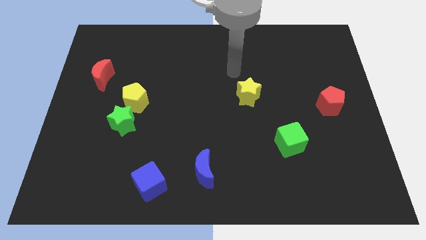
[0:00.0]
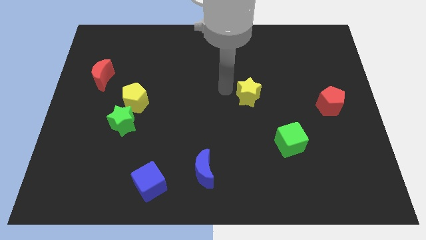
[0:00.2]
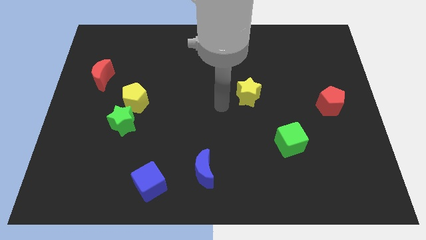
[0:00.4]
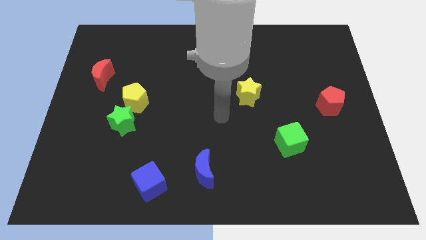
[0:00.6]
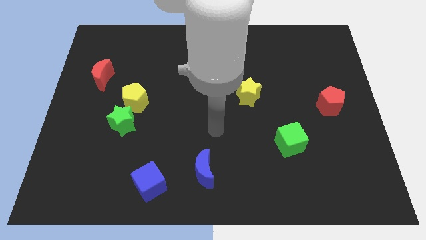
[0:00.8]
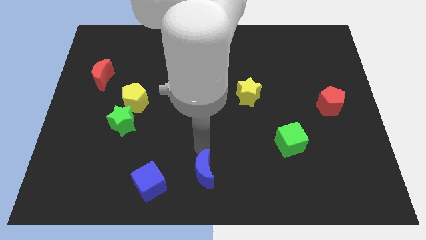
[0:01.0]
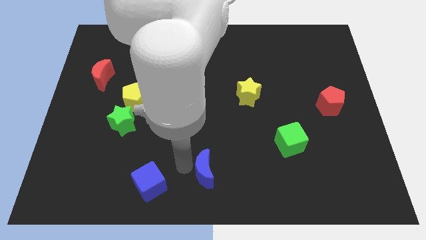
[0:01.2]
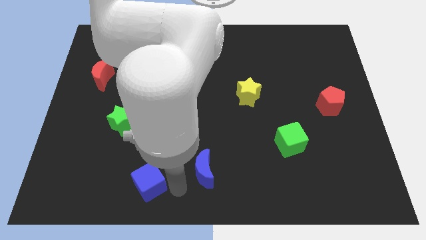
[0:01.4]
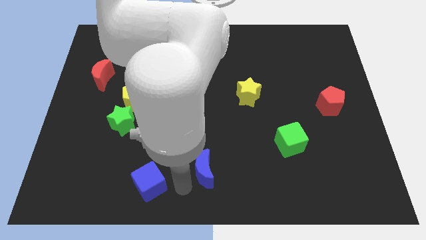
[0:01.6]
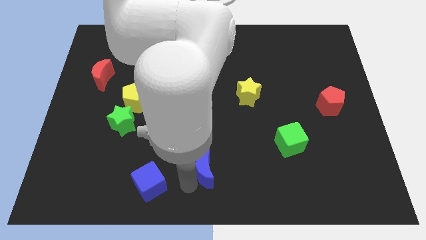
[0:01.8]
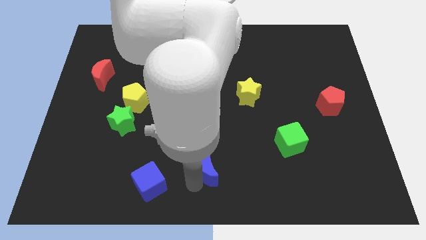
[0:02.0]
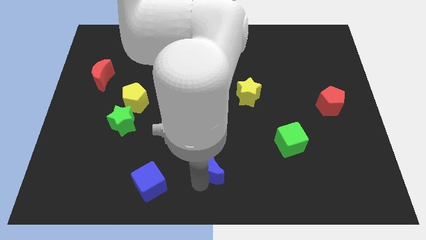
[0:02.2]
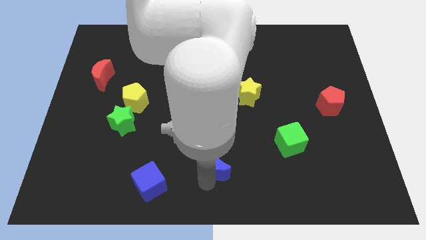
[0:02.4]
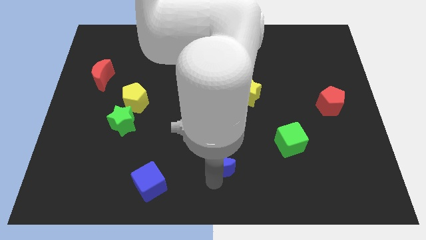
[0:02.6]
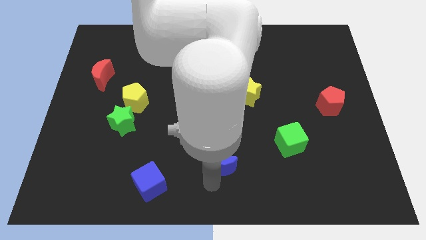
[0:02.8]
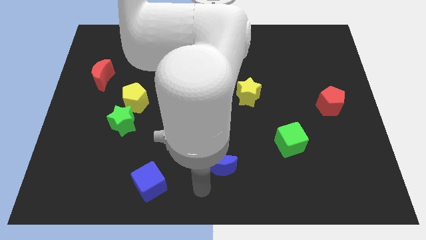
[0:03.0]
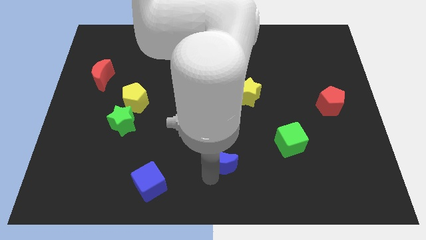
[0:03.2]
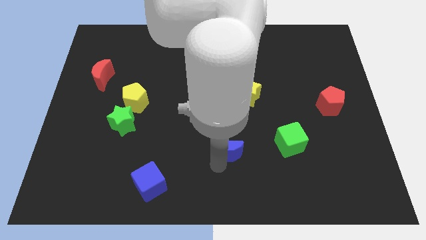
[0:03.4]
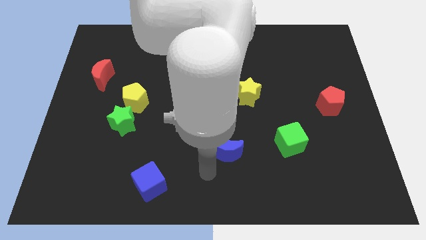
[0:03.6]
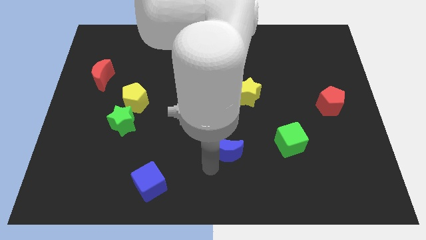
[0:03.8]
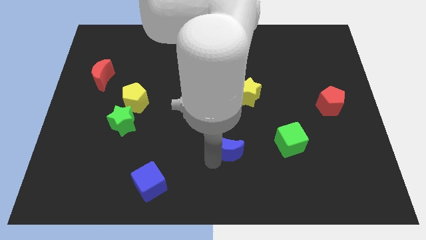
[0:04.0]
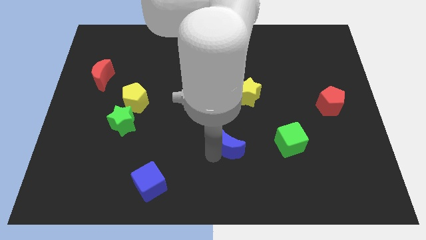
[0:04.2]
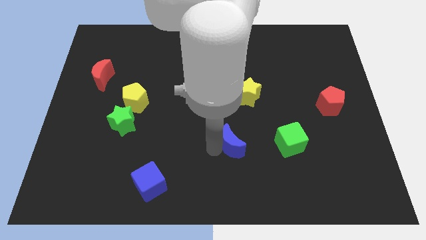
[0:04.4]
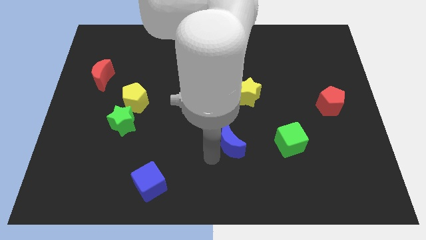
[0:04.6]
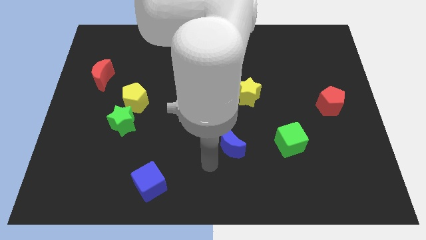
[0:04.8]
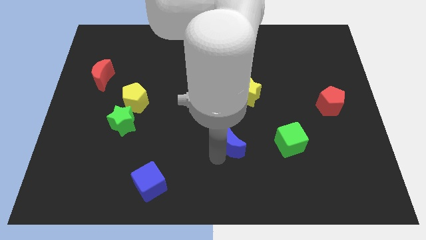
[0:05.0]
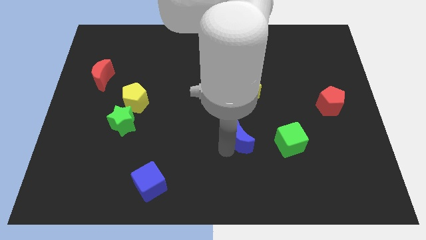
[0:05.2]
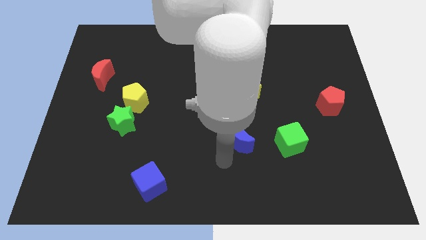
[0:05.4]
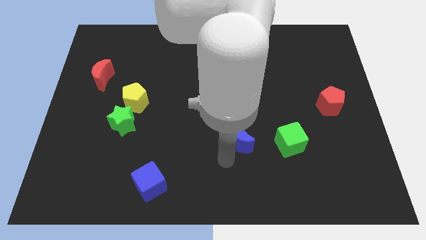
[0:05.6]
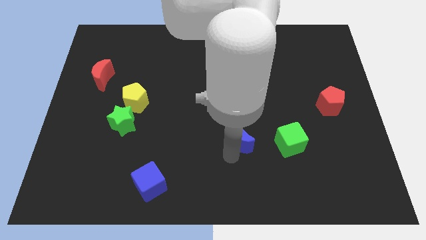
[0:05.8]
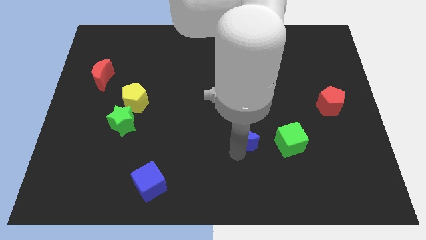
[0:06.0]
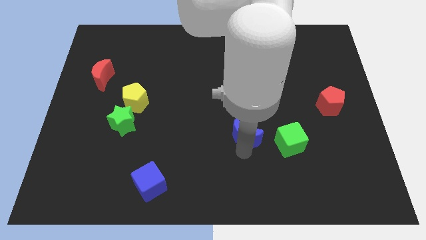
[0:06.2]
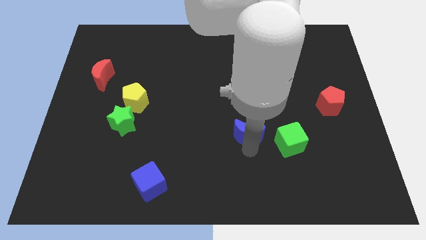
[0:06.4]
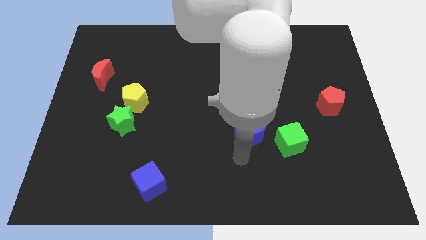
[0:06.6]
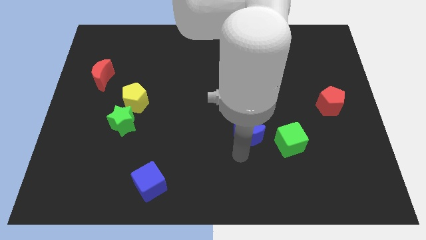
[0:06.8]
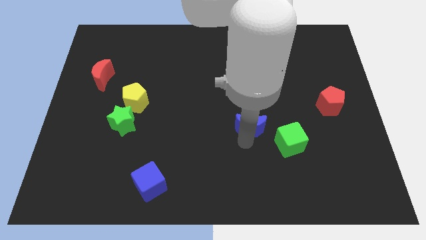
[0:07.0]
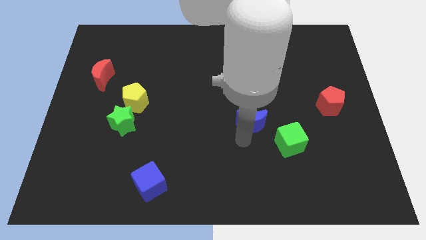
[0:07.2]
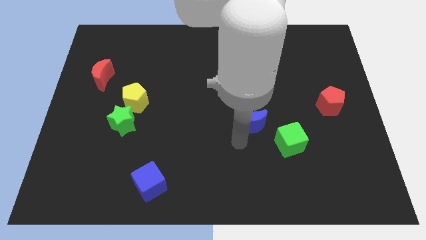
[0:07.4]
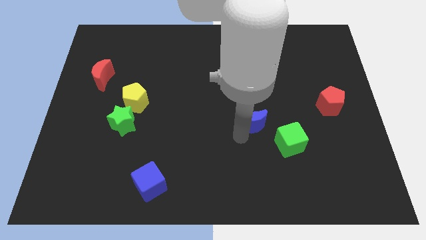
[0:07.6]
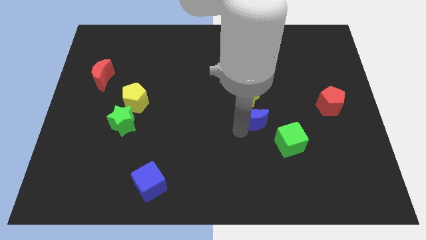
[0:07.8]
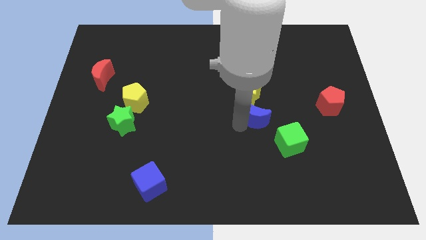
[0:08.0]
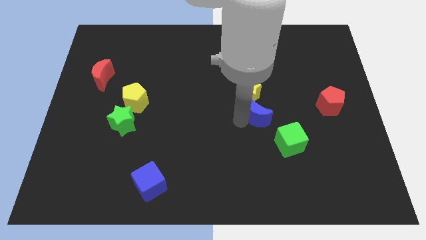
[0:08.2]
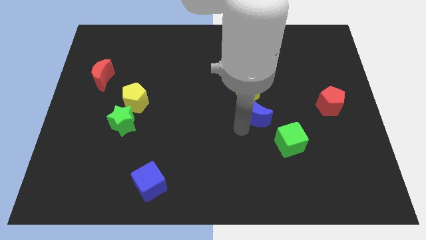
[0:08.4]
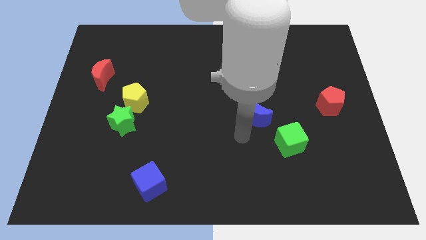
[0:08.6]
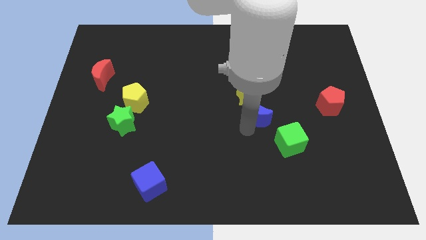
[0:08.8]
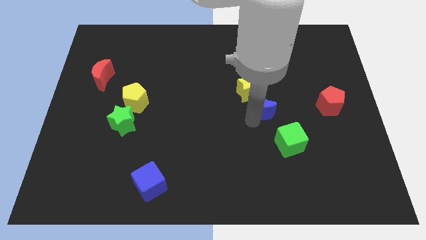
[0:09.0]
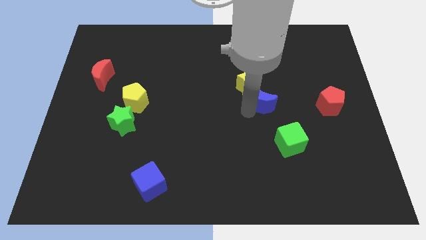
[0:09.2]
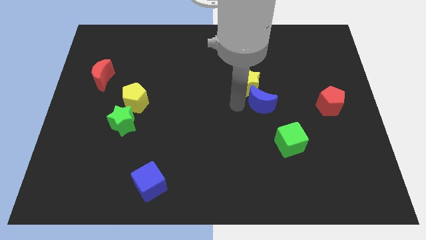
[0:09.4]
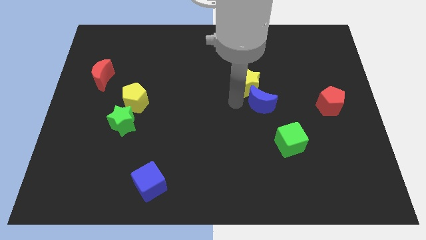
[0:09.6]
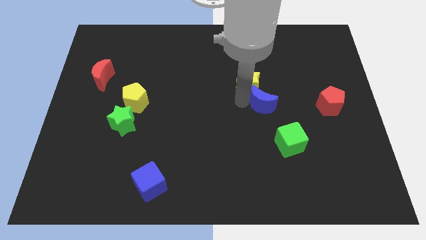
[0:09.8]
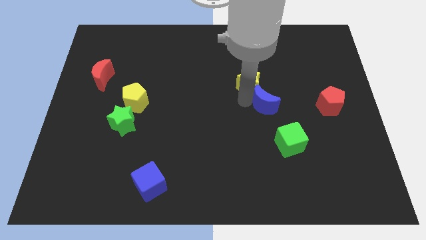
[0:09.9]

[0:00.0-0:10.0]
move the blue moon to the top of the green cube

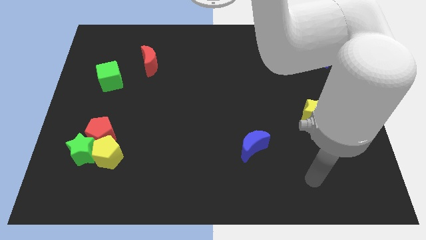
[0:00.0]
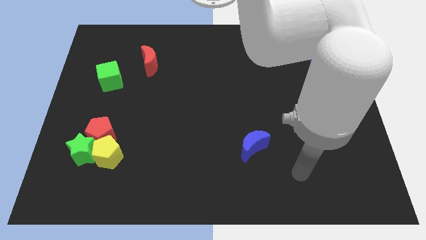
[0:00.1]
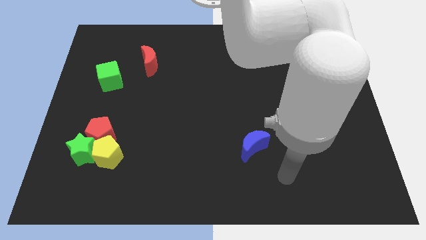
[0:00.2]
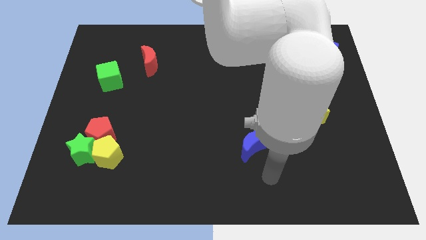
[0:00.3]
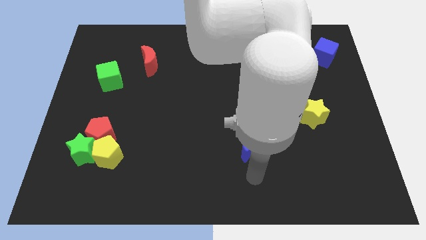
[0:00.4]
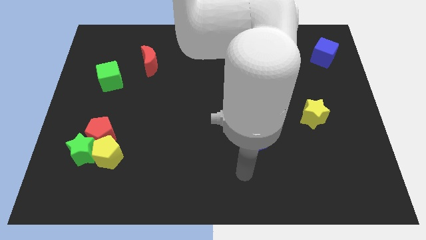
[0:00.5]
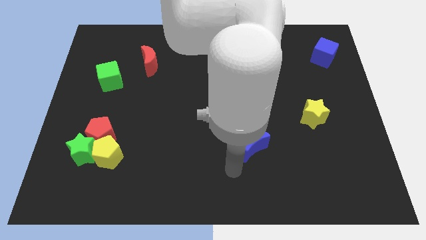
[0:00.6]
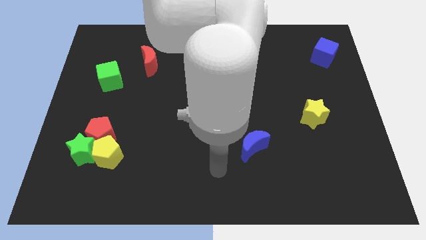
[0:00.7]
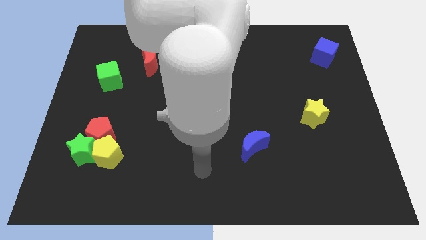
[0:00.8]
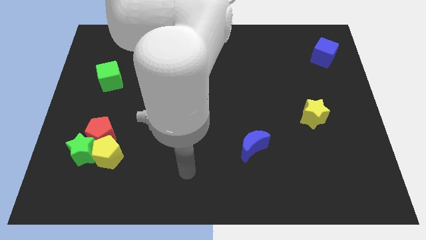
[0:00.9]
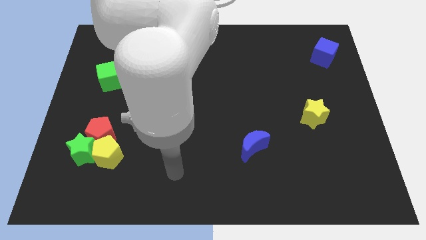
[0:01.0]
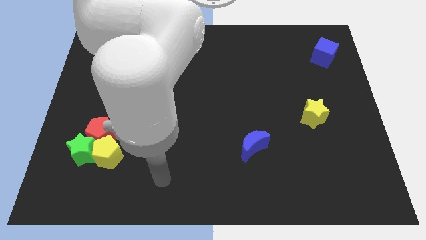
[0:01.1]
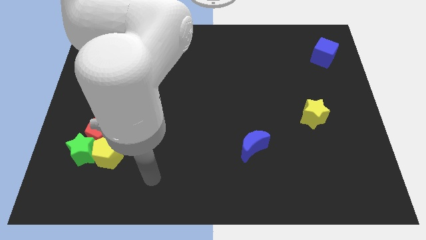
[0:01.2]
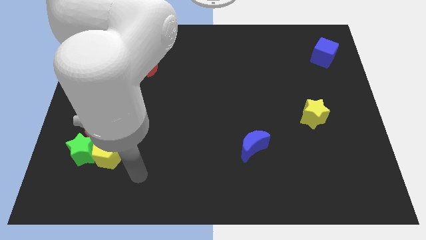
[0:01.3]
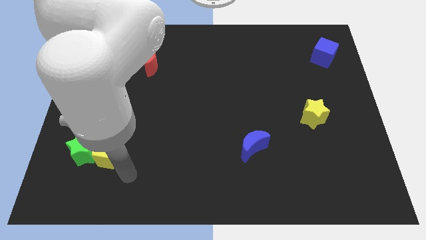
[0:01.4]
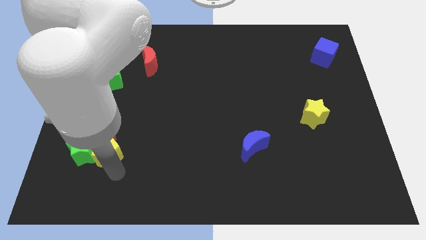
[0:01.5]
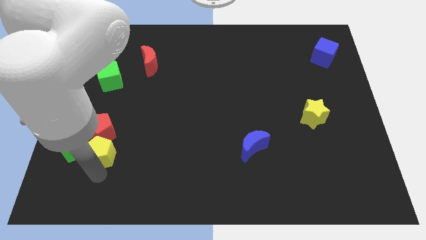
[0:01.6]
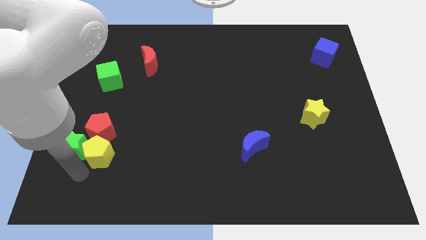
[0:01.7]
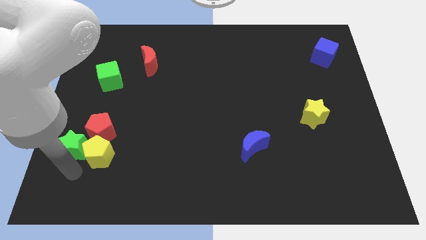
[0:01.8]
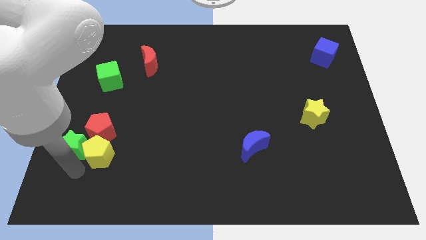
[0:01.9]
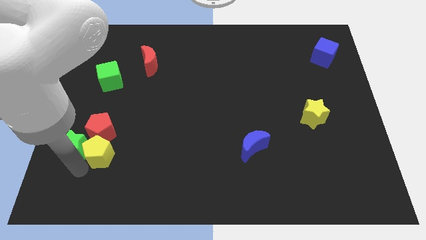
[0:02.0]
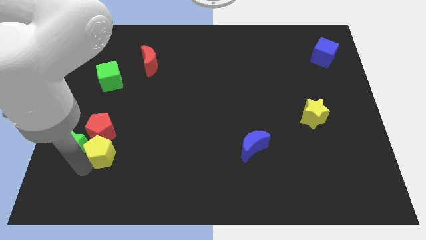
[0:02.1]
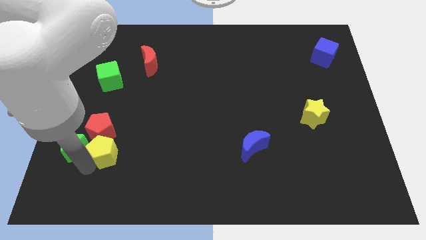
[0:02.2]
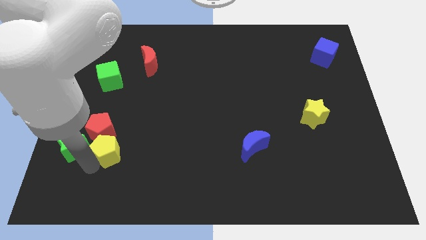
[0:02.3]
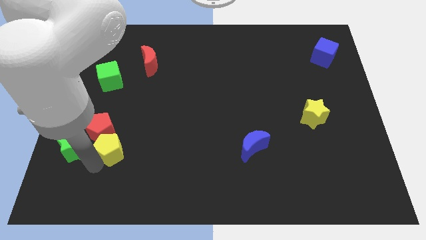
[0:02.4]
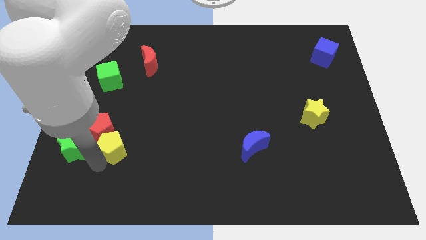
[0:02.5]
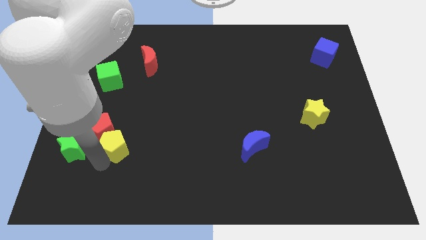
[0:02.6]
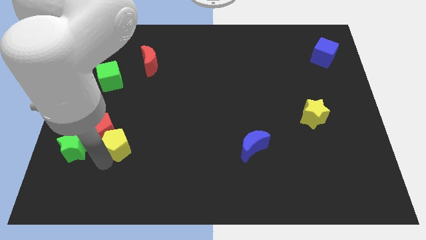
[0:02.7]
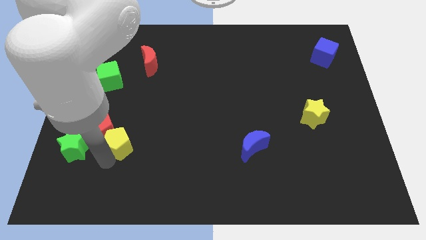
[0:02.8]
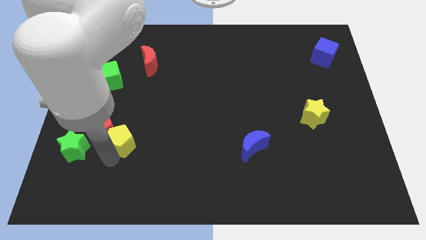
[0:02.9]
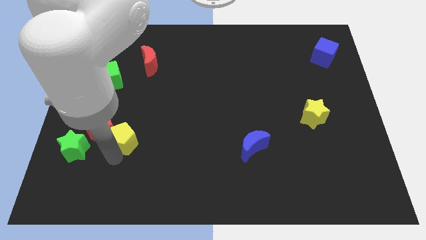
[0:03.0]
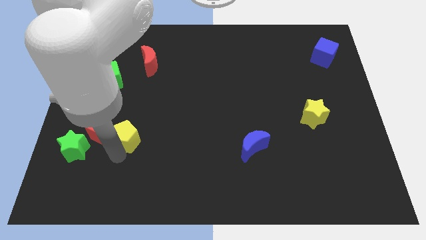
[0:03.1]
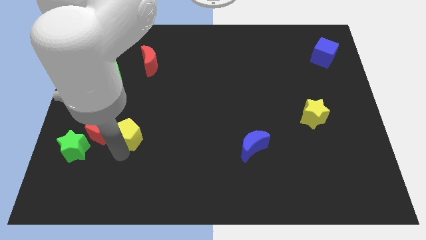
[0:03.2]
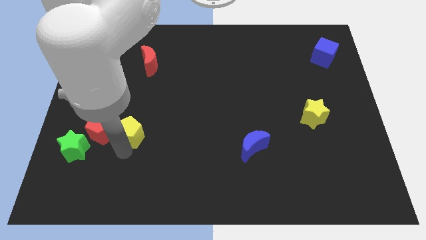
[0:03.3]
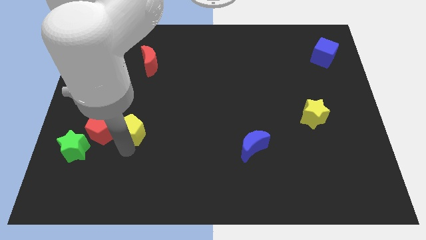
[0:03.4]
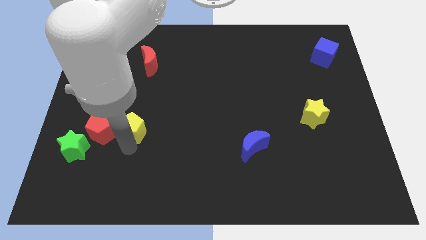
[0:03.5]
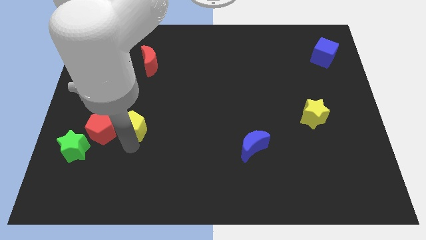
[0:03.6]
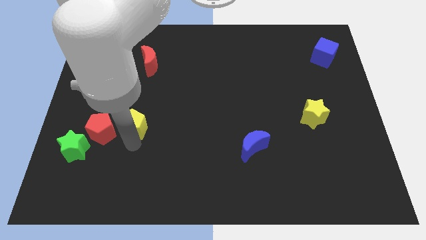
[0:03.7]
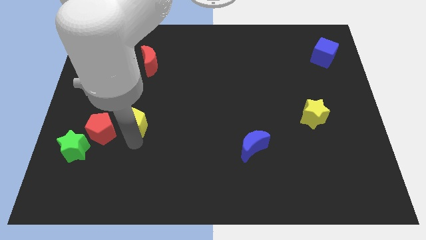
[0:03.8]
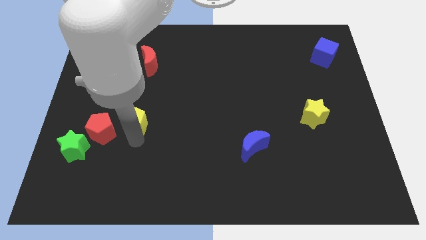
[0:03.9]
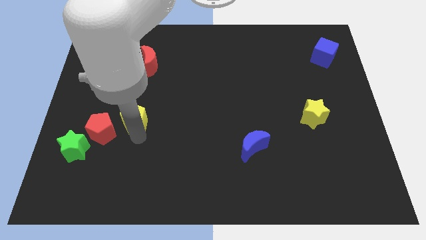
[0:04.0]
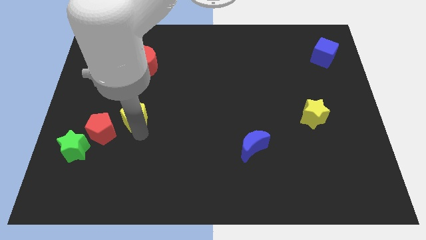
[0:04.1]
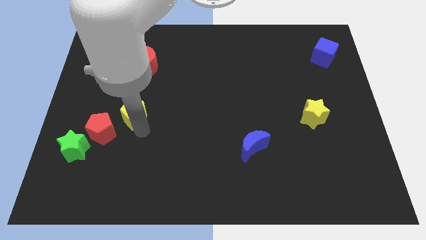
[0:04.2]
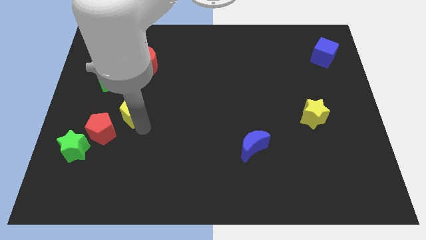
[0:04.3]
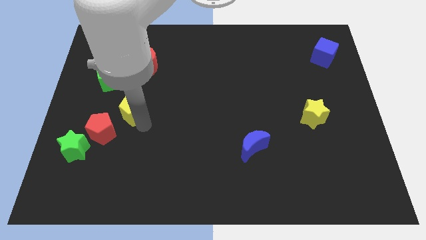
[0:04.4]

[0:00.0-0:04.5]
push the yellow pentagon diagonally down and to the right of the green cube
